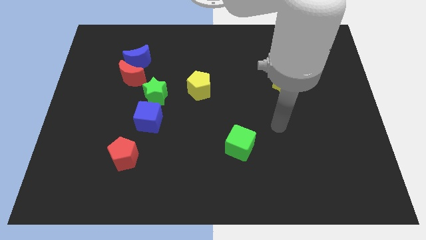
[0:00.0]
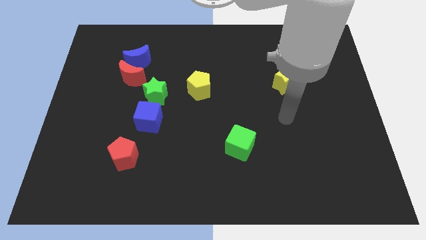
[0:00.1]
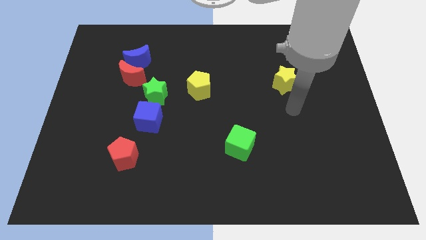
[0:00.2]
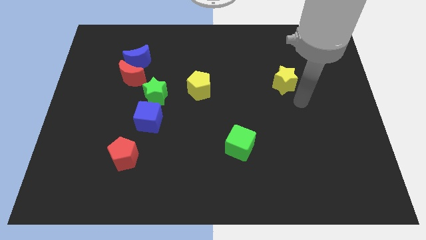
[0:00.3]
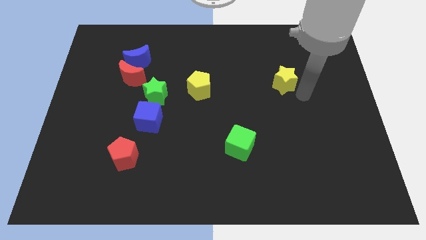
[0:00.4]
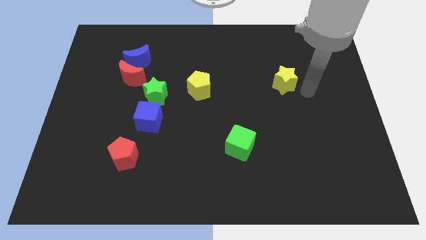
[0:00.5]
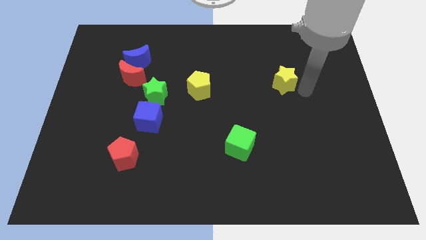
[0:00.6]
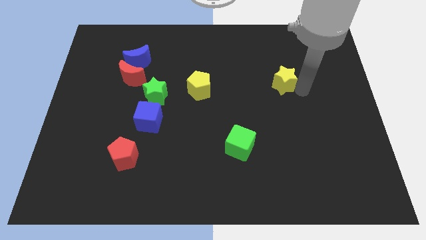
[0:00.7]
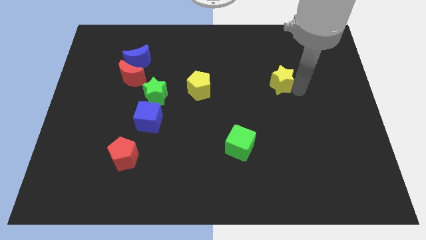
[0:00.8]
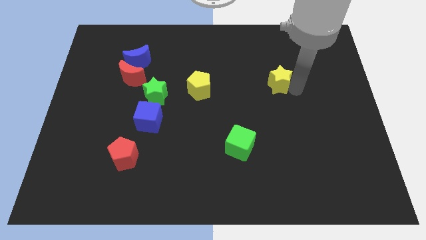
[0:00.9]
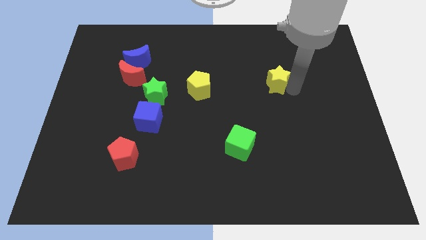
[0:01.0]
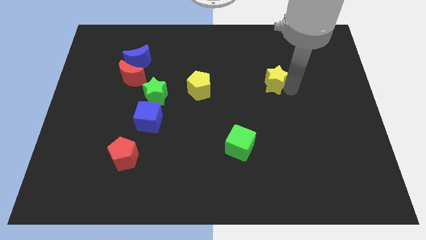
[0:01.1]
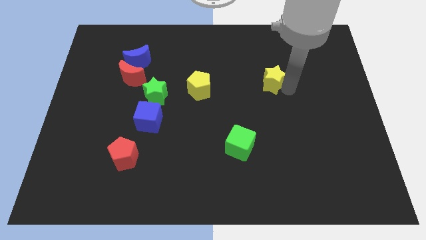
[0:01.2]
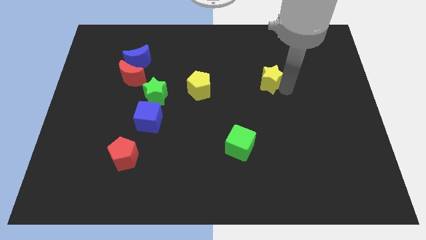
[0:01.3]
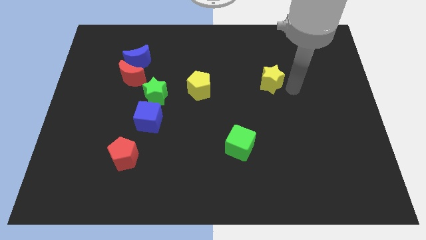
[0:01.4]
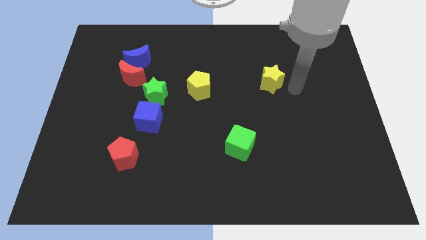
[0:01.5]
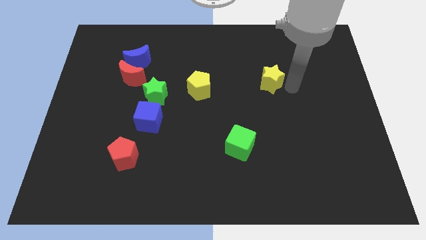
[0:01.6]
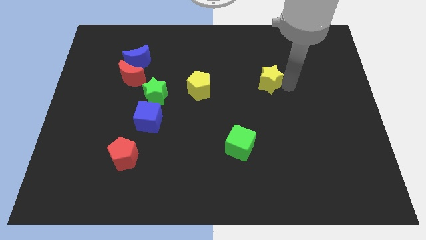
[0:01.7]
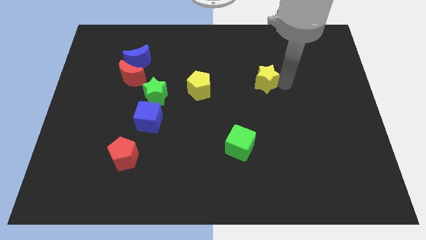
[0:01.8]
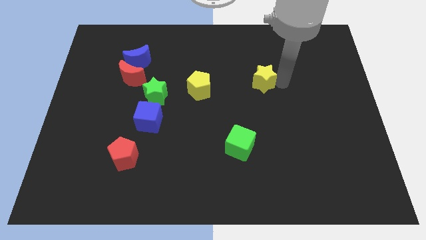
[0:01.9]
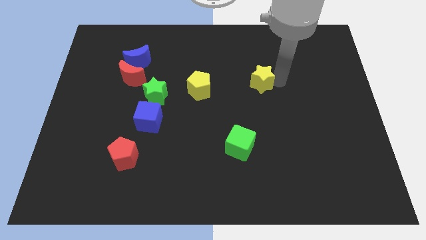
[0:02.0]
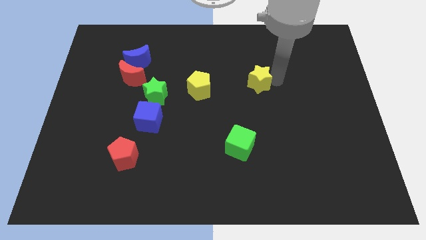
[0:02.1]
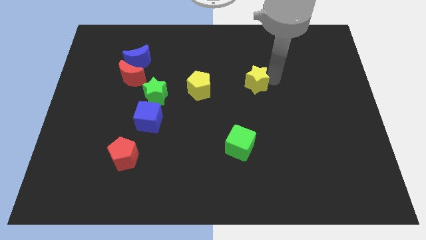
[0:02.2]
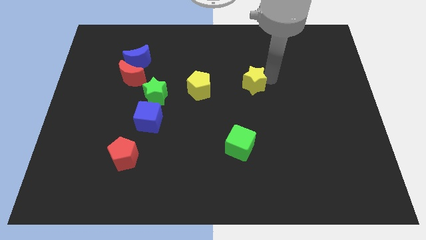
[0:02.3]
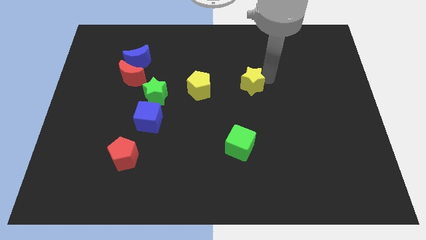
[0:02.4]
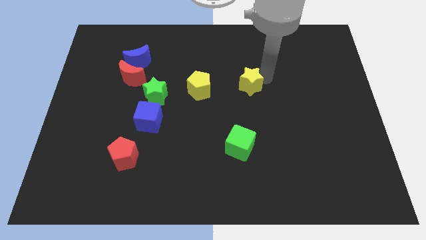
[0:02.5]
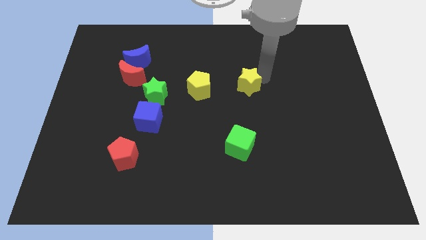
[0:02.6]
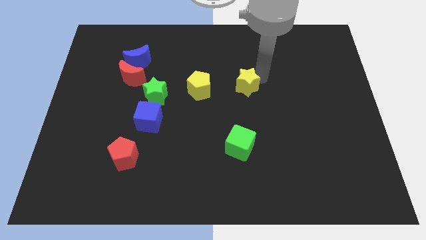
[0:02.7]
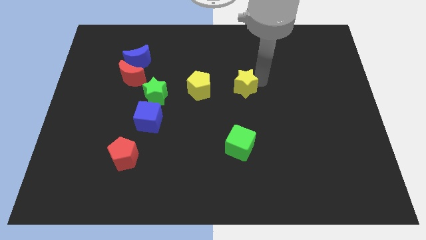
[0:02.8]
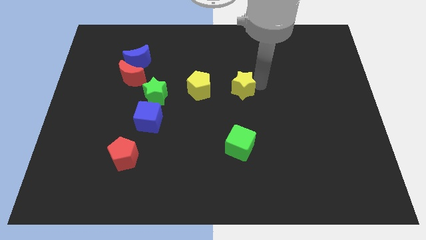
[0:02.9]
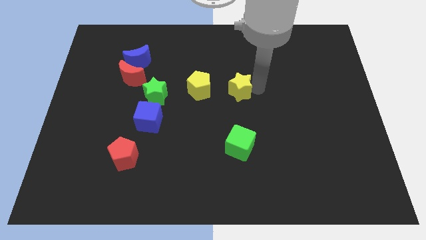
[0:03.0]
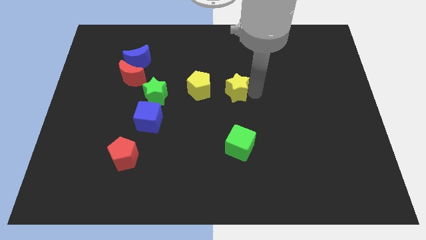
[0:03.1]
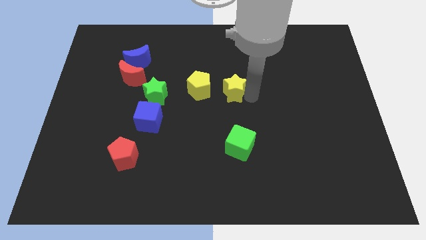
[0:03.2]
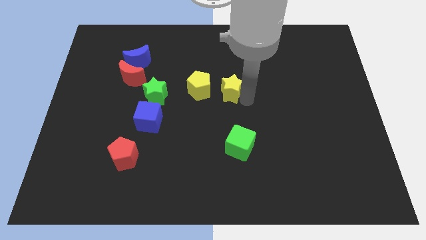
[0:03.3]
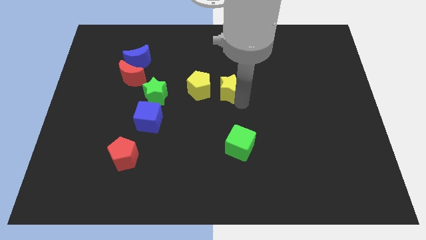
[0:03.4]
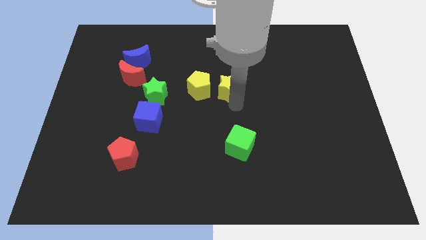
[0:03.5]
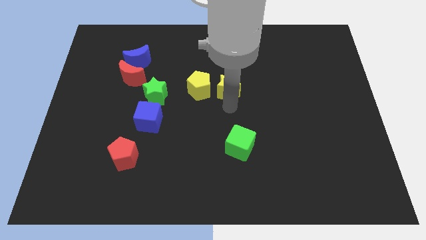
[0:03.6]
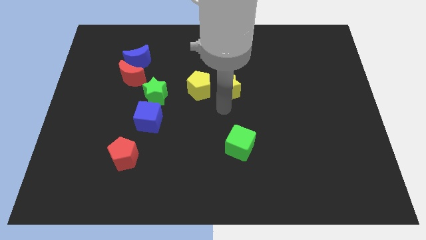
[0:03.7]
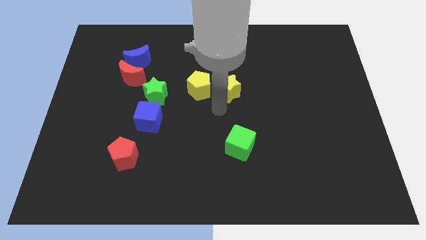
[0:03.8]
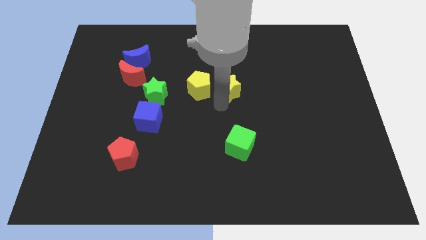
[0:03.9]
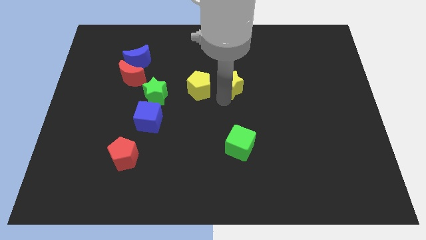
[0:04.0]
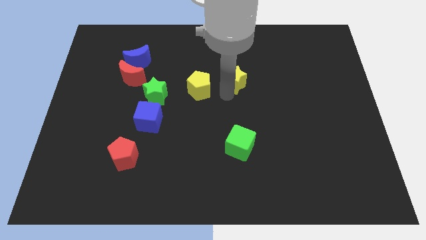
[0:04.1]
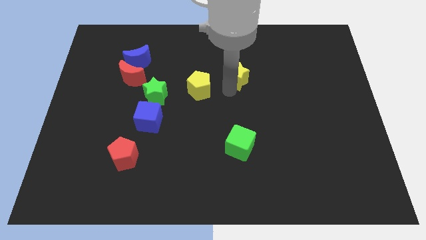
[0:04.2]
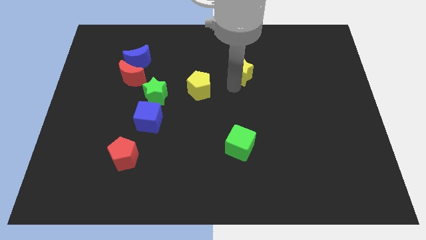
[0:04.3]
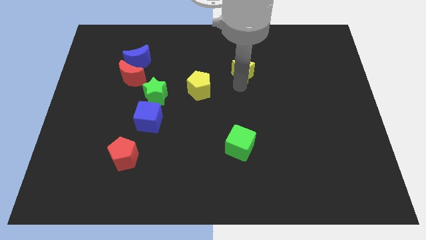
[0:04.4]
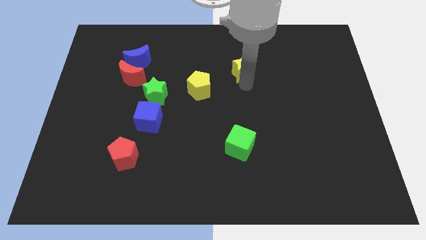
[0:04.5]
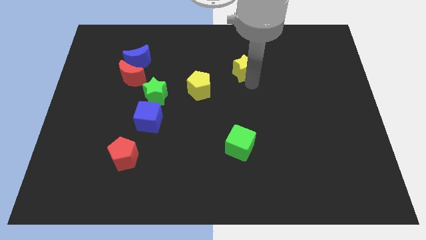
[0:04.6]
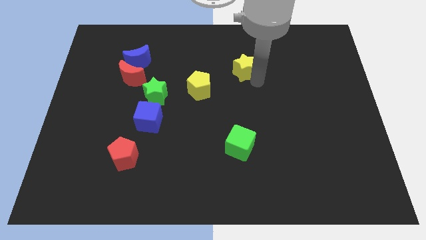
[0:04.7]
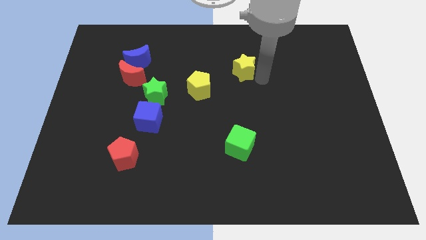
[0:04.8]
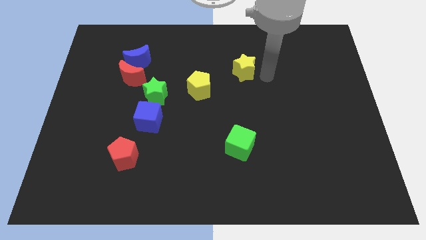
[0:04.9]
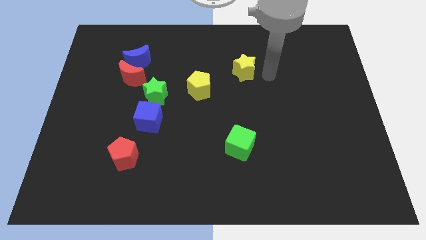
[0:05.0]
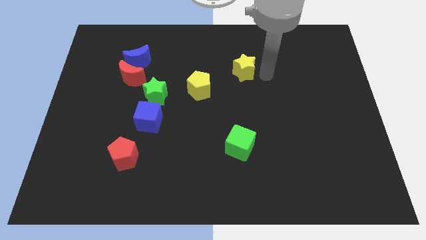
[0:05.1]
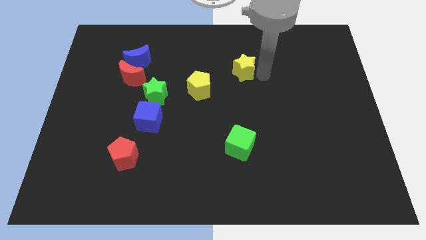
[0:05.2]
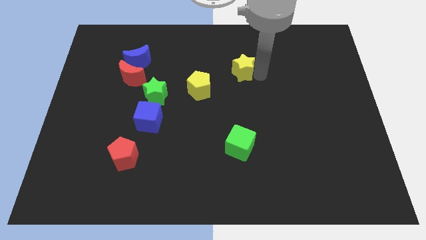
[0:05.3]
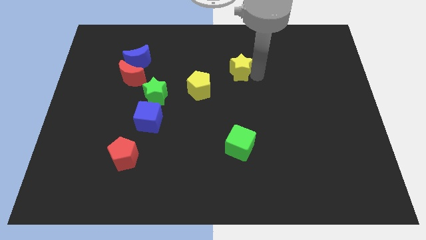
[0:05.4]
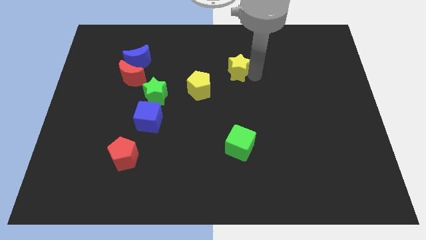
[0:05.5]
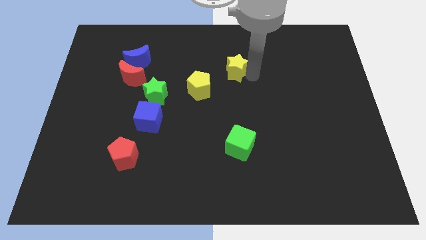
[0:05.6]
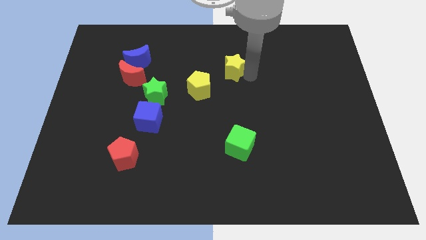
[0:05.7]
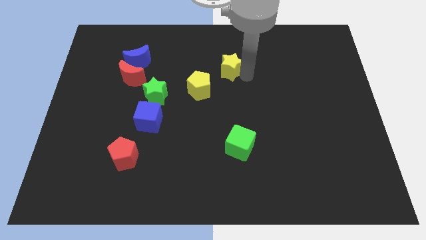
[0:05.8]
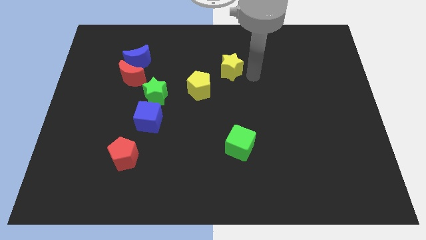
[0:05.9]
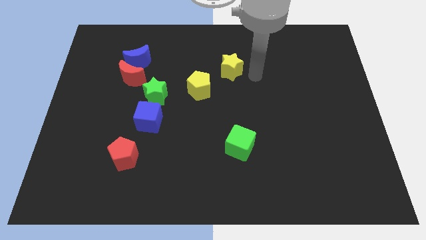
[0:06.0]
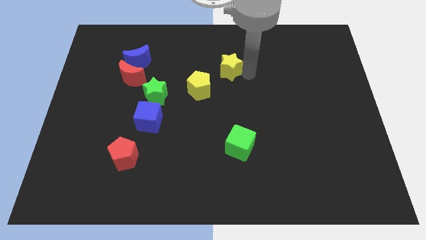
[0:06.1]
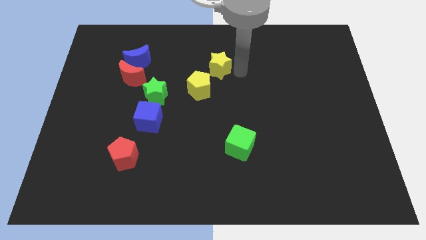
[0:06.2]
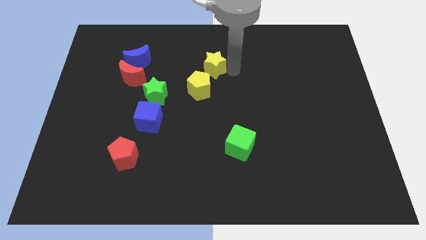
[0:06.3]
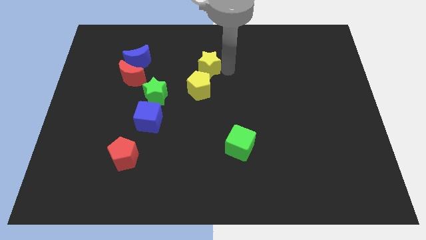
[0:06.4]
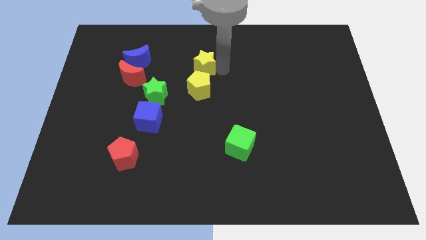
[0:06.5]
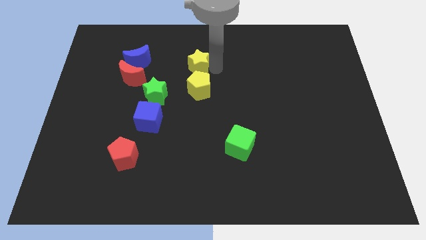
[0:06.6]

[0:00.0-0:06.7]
push the yellow star to the right of the blue moon

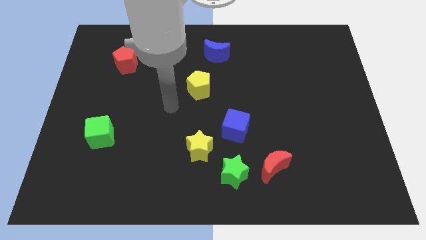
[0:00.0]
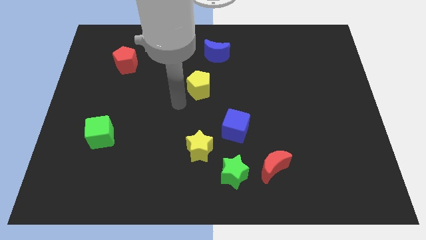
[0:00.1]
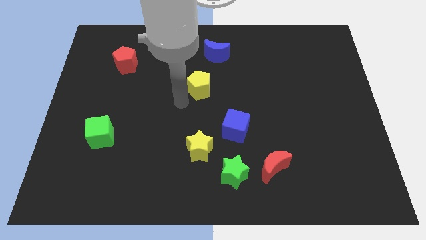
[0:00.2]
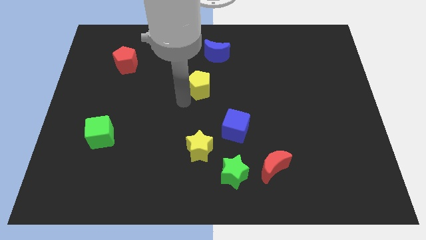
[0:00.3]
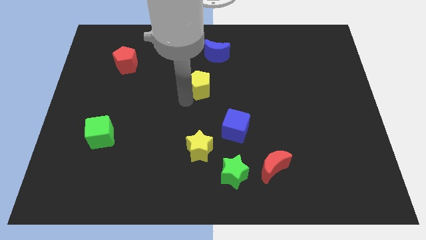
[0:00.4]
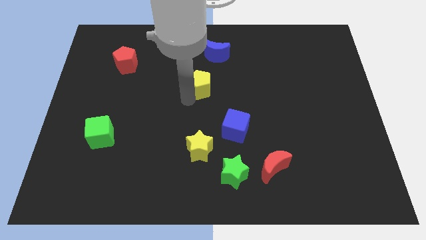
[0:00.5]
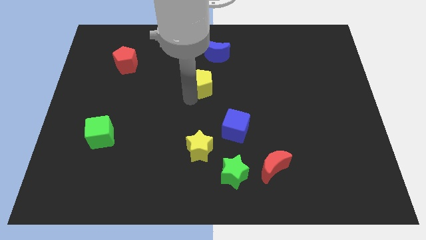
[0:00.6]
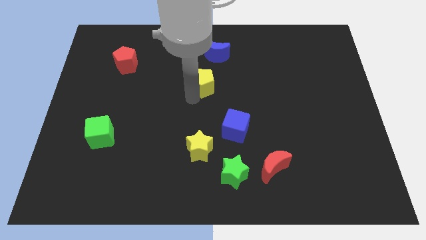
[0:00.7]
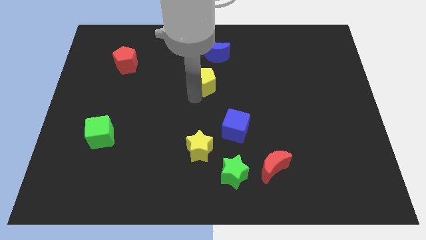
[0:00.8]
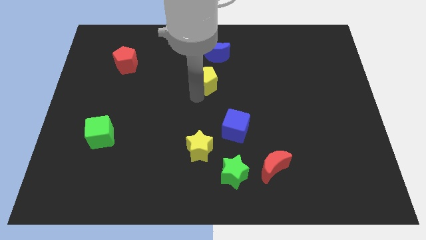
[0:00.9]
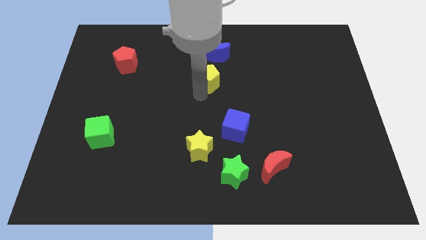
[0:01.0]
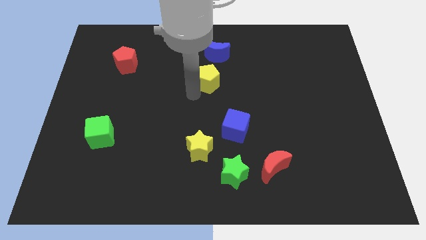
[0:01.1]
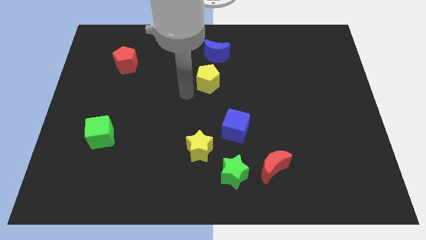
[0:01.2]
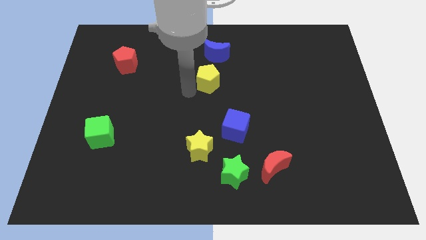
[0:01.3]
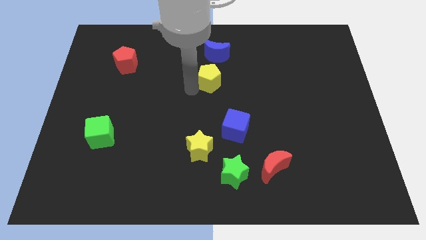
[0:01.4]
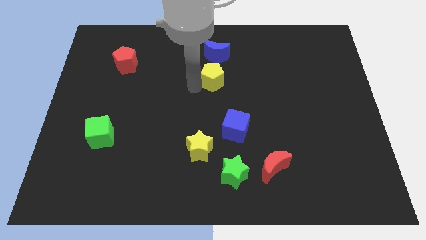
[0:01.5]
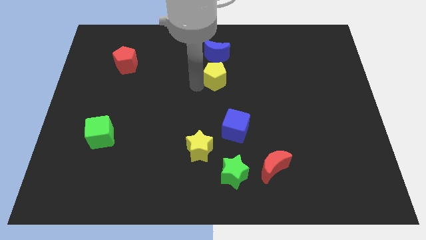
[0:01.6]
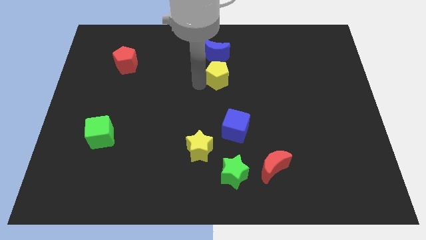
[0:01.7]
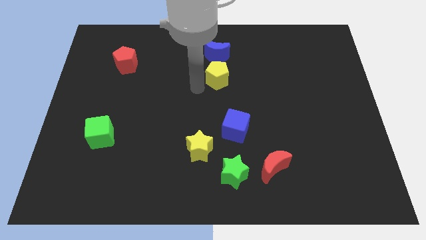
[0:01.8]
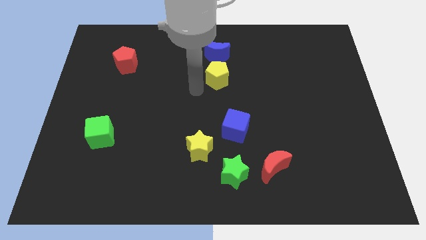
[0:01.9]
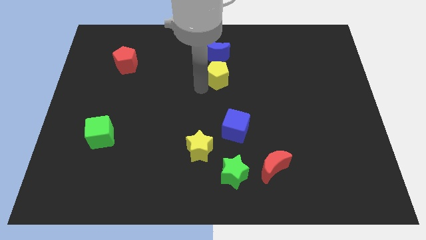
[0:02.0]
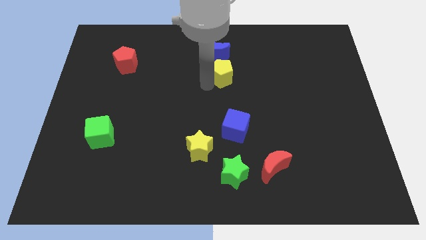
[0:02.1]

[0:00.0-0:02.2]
put the yellow pentagon to the bottom right side of the blue moon
